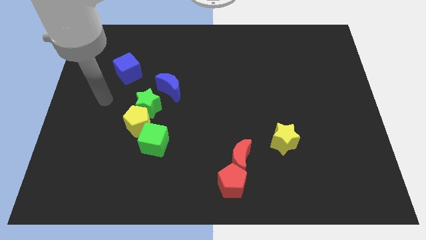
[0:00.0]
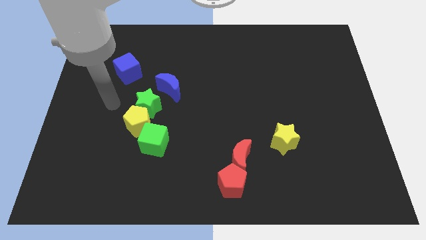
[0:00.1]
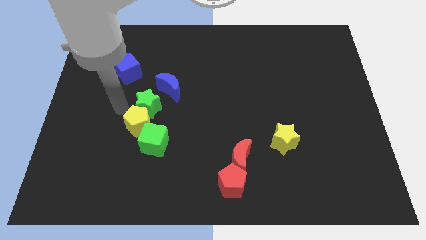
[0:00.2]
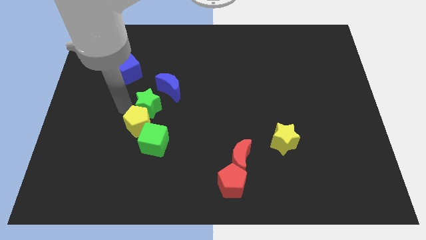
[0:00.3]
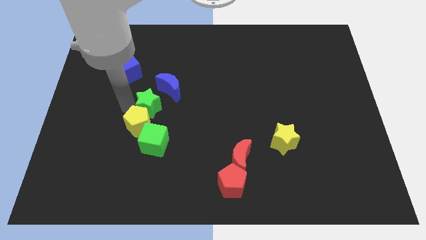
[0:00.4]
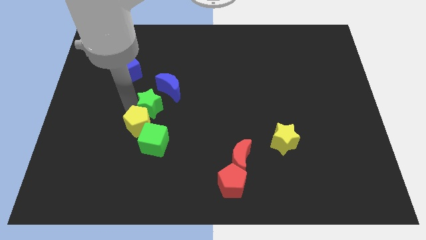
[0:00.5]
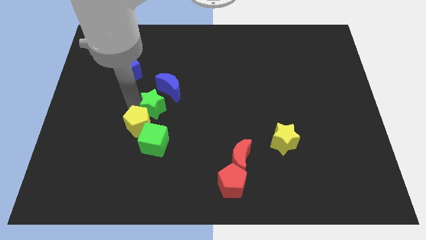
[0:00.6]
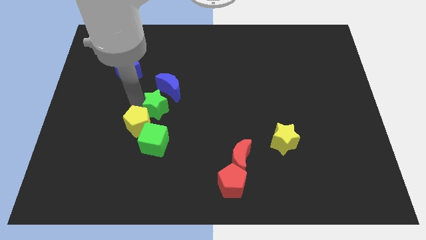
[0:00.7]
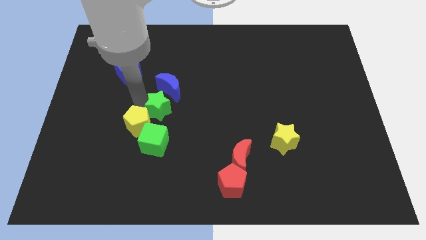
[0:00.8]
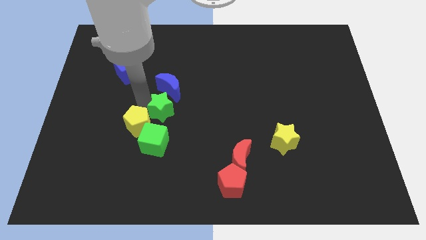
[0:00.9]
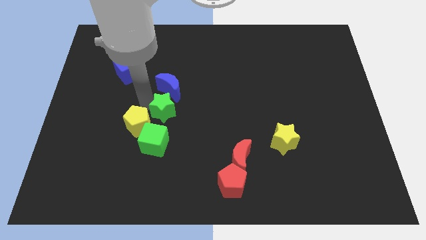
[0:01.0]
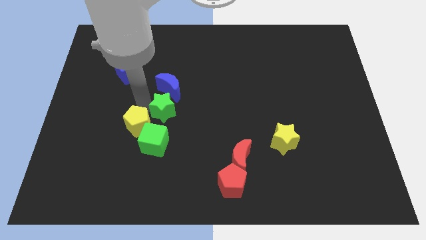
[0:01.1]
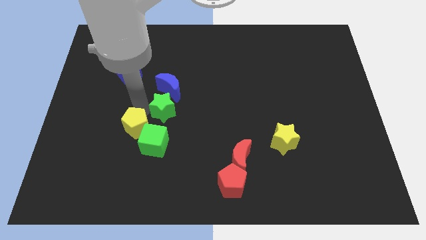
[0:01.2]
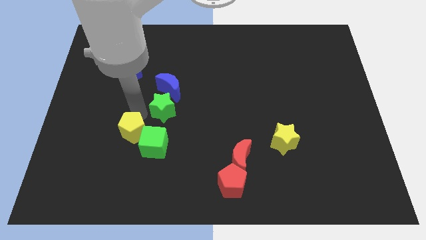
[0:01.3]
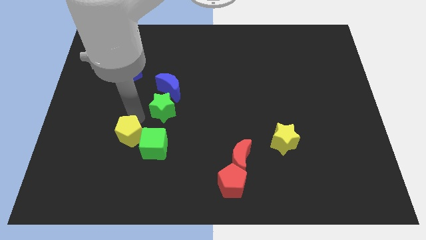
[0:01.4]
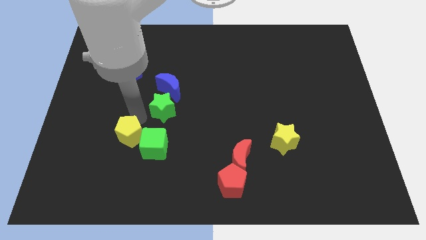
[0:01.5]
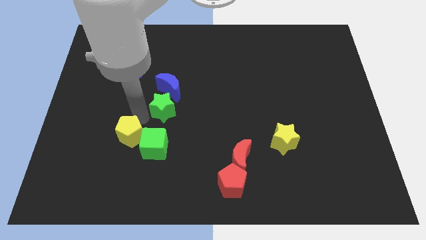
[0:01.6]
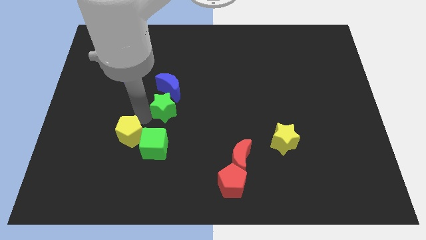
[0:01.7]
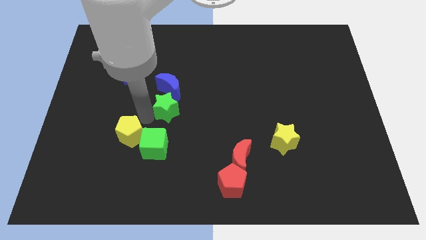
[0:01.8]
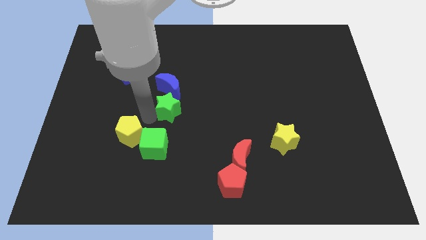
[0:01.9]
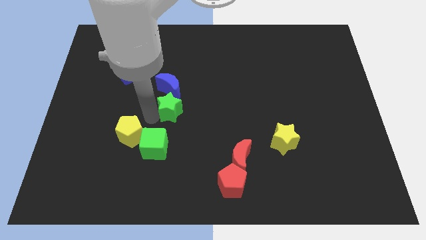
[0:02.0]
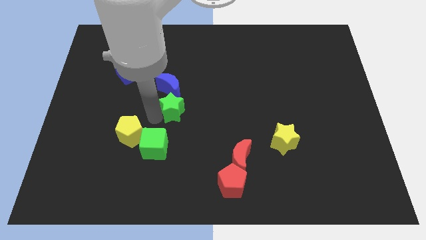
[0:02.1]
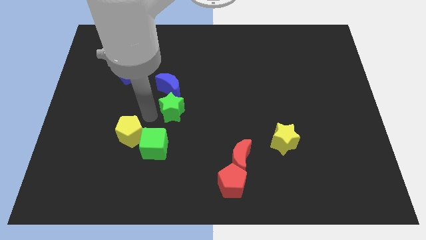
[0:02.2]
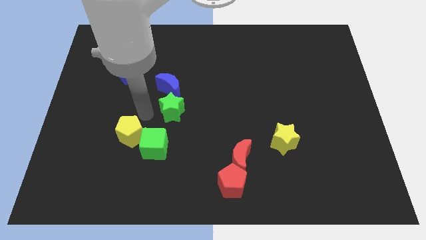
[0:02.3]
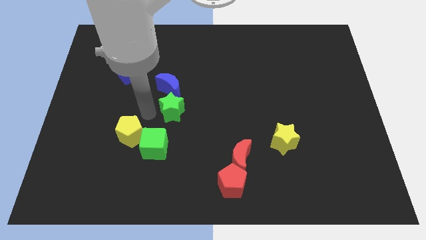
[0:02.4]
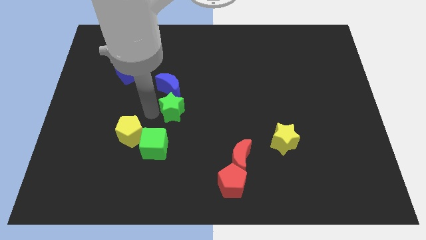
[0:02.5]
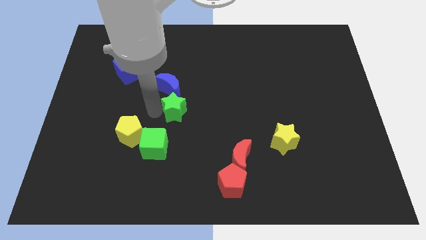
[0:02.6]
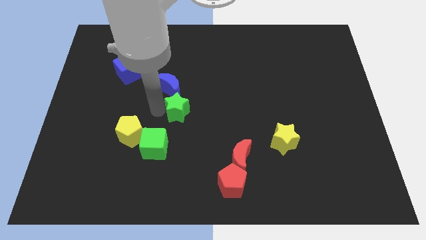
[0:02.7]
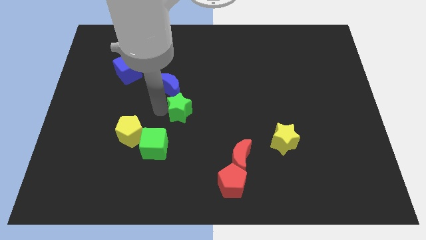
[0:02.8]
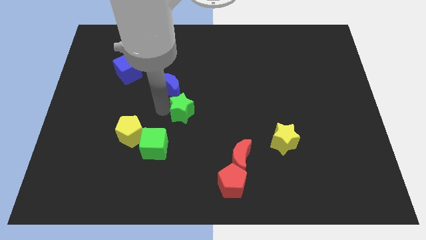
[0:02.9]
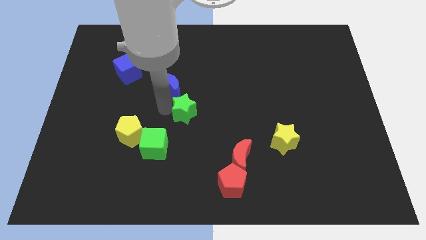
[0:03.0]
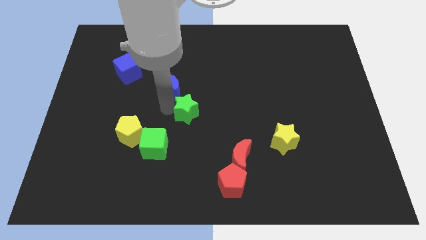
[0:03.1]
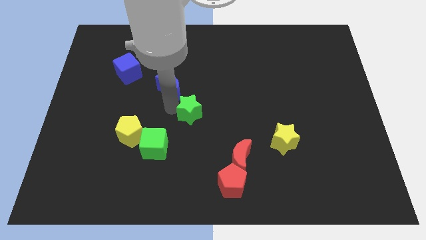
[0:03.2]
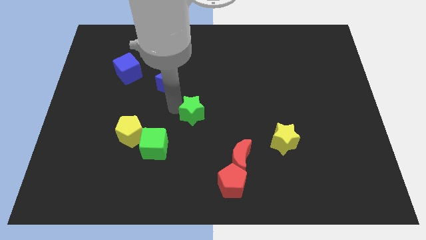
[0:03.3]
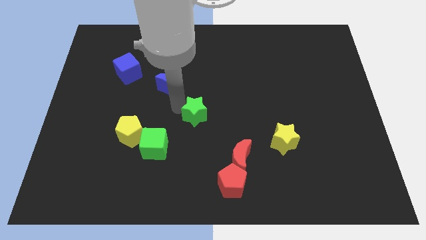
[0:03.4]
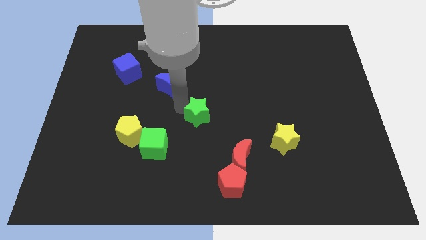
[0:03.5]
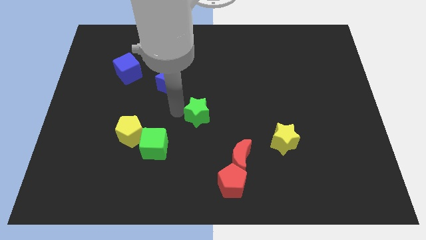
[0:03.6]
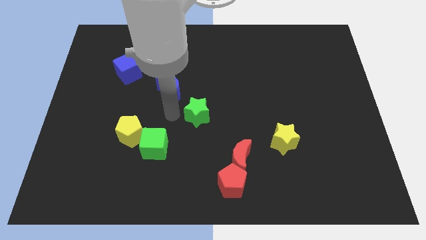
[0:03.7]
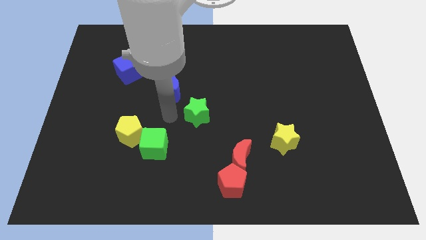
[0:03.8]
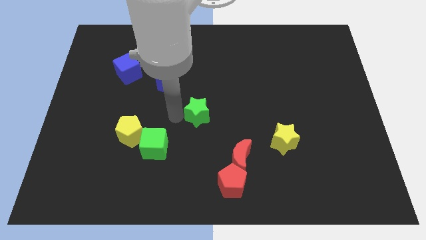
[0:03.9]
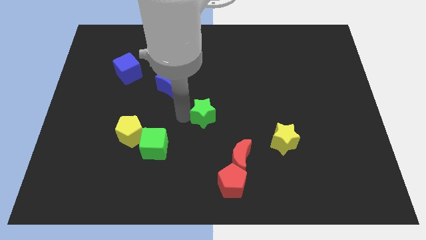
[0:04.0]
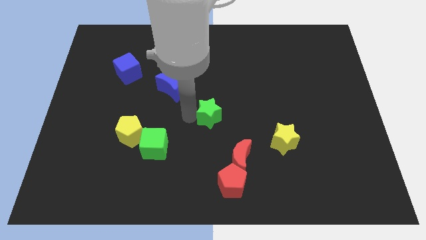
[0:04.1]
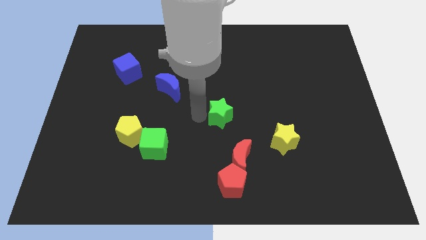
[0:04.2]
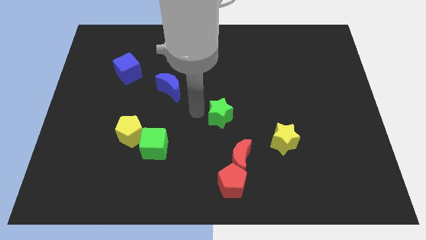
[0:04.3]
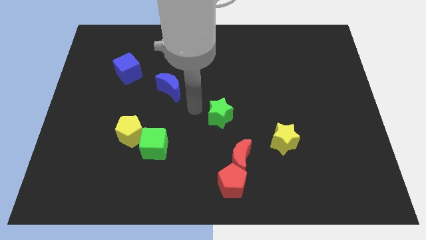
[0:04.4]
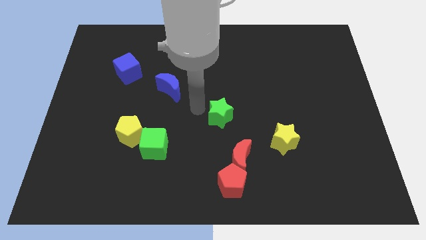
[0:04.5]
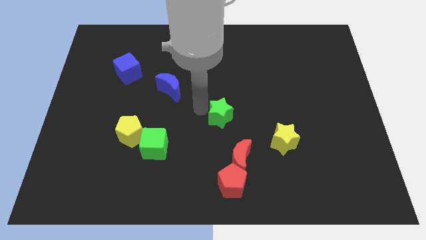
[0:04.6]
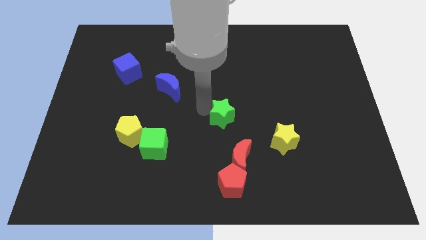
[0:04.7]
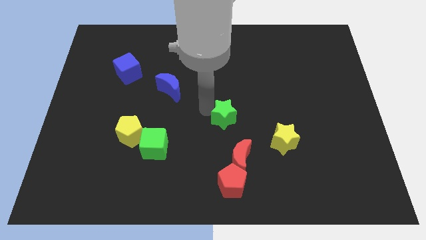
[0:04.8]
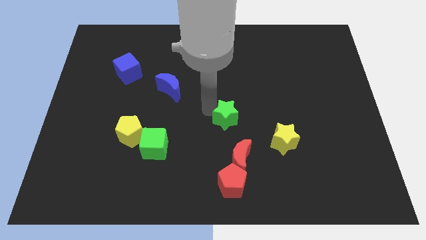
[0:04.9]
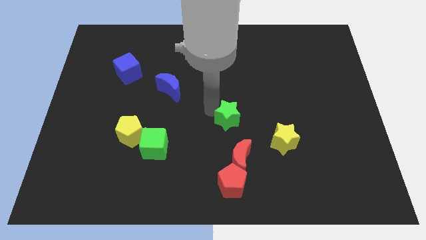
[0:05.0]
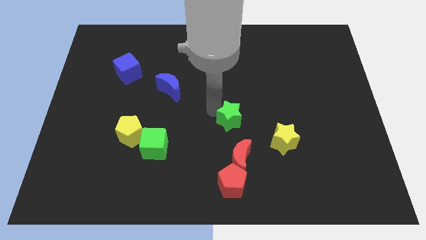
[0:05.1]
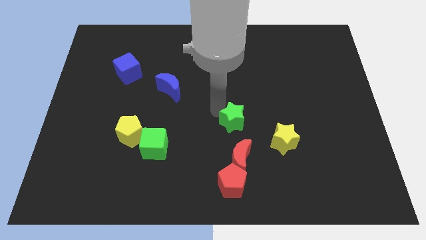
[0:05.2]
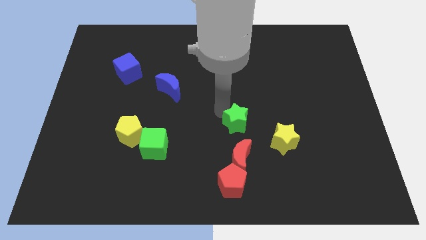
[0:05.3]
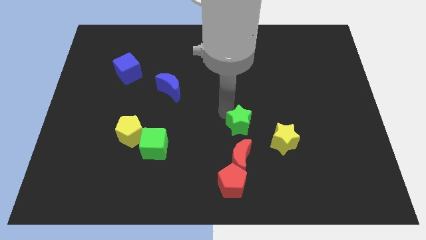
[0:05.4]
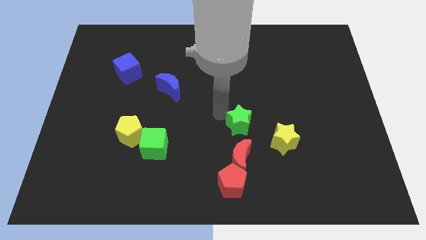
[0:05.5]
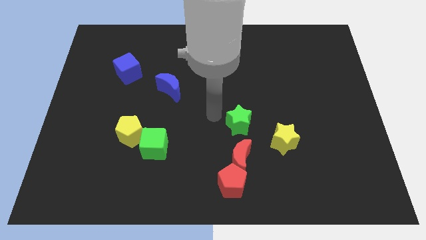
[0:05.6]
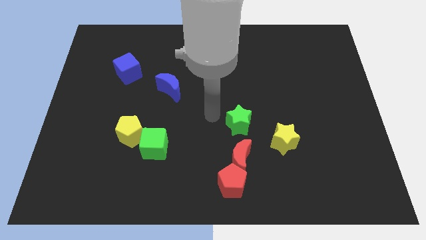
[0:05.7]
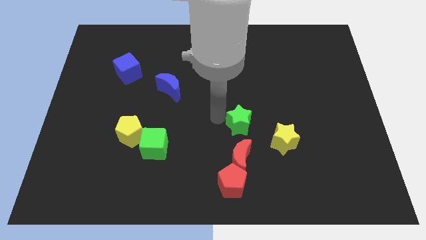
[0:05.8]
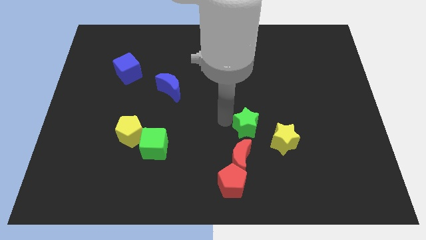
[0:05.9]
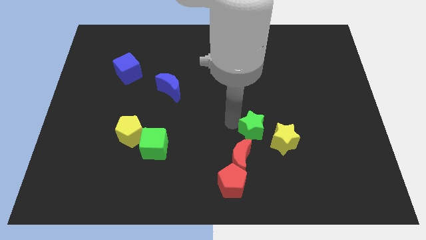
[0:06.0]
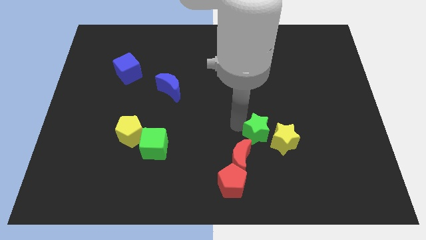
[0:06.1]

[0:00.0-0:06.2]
slide the green star to the yellow star
